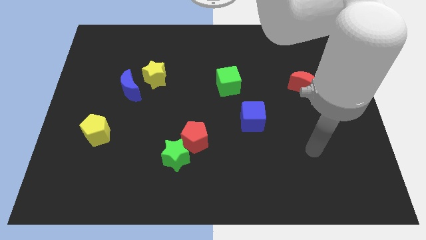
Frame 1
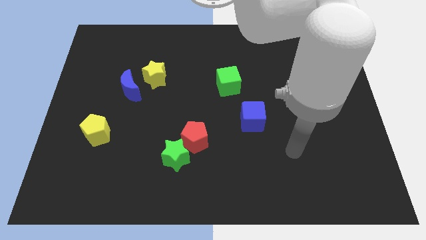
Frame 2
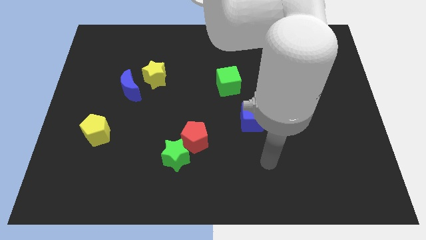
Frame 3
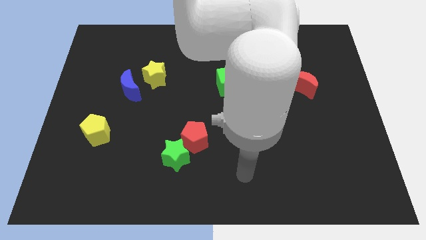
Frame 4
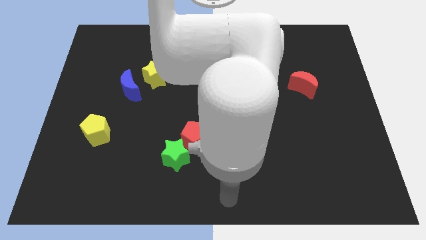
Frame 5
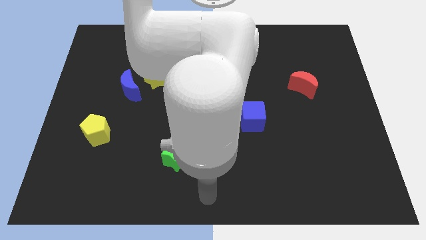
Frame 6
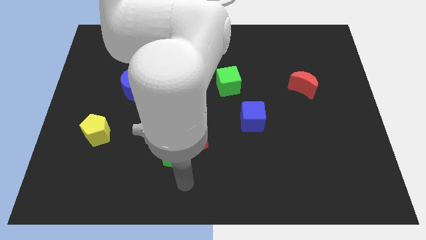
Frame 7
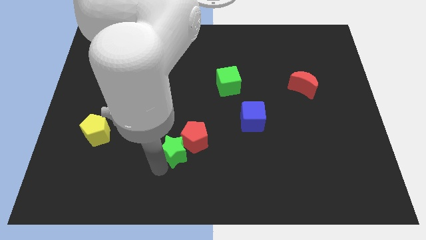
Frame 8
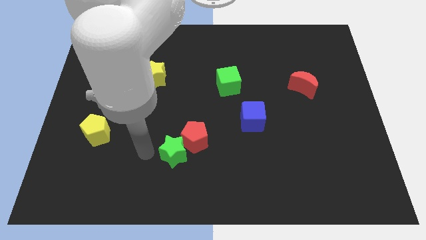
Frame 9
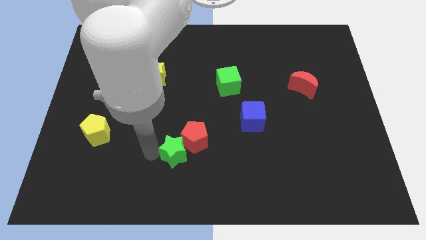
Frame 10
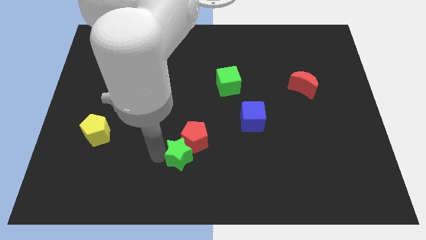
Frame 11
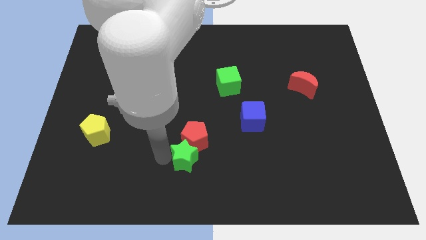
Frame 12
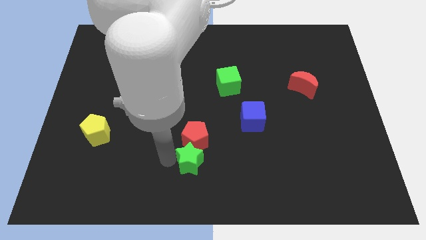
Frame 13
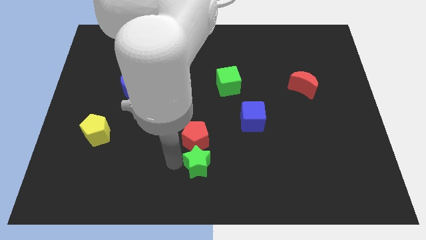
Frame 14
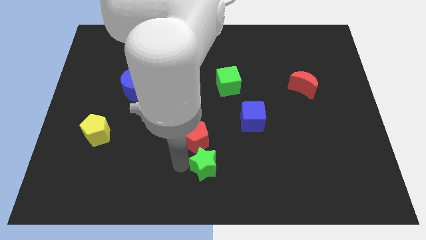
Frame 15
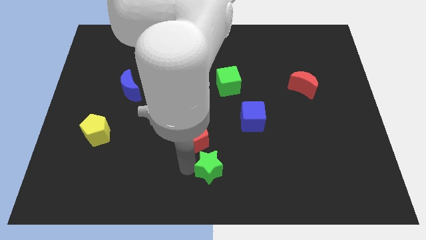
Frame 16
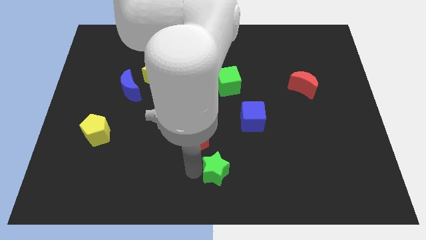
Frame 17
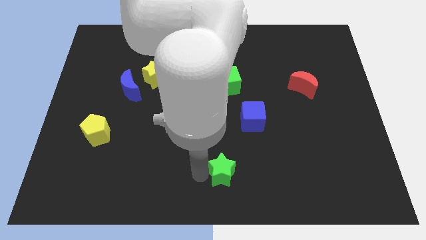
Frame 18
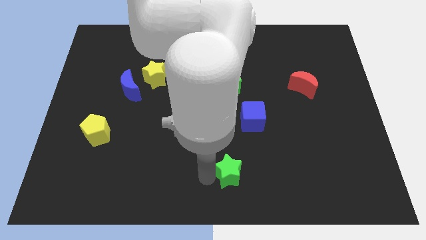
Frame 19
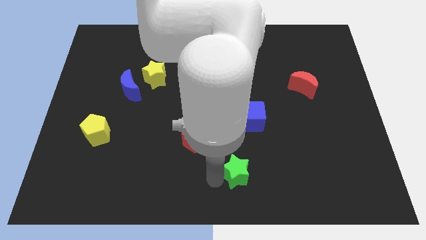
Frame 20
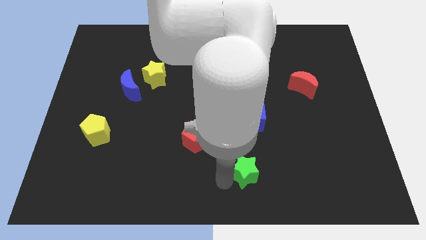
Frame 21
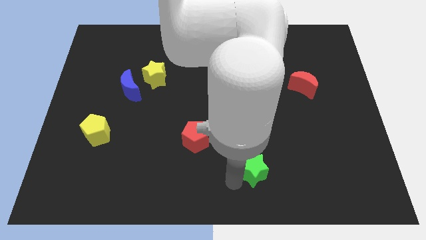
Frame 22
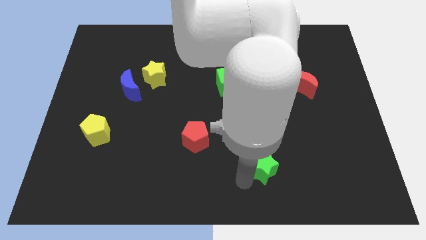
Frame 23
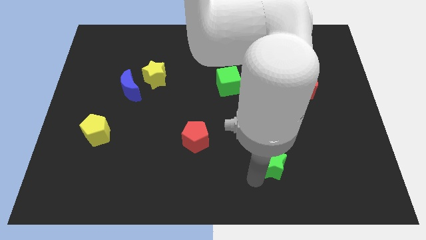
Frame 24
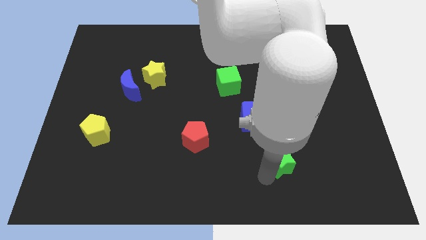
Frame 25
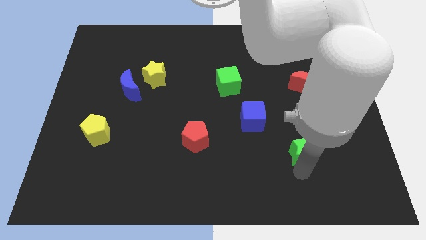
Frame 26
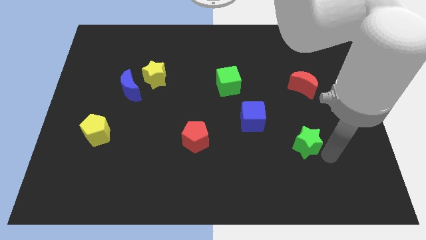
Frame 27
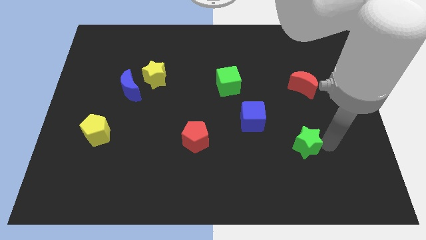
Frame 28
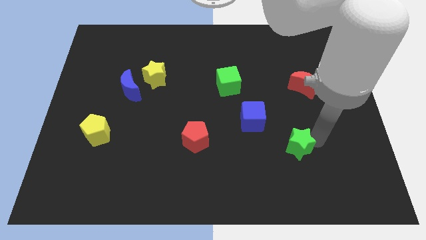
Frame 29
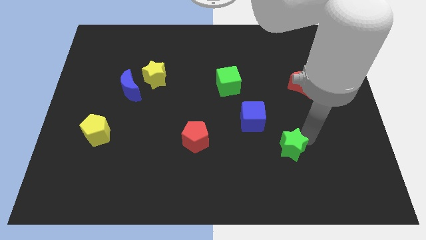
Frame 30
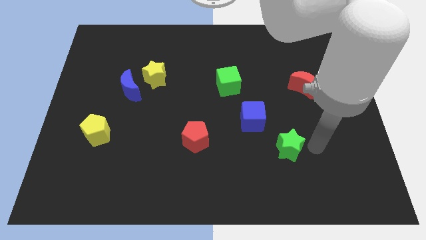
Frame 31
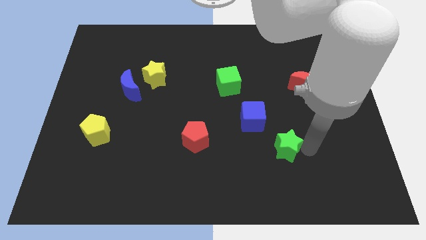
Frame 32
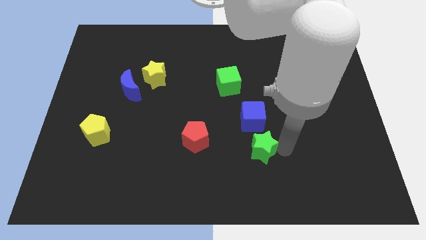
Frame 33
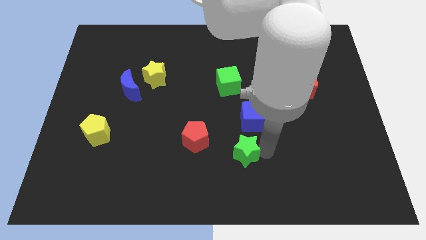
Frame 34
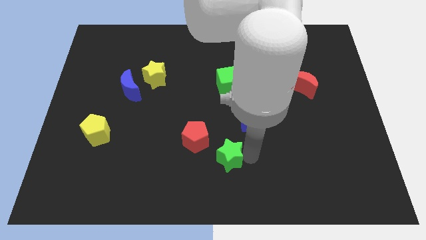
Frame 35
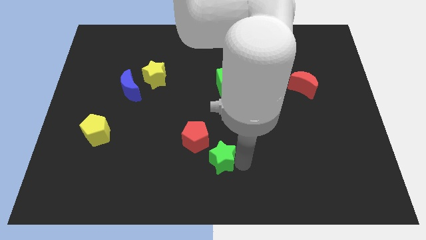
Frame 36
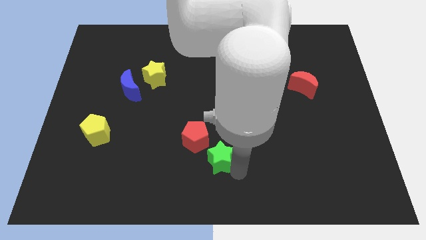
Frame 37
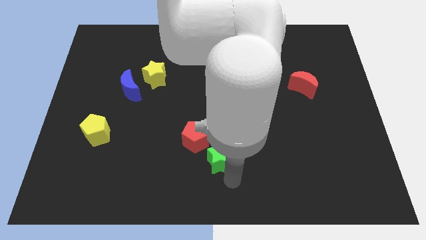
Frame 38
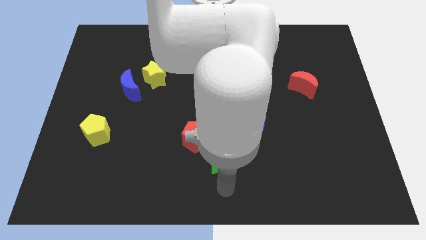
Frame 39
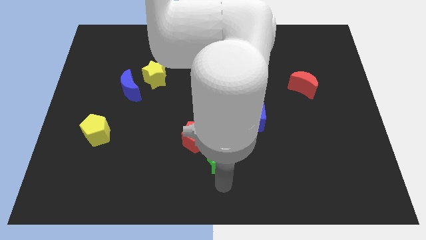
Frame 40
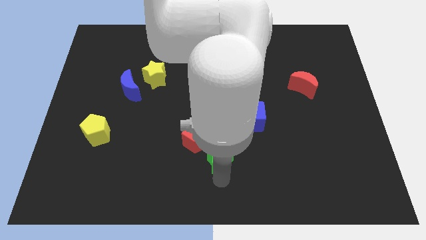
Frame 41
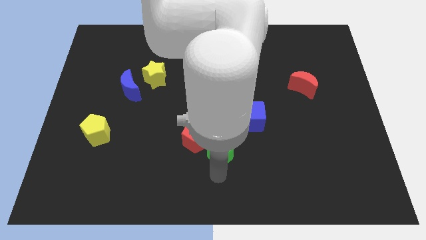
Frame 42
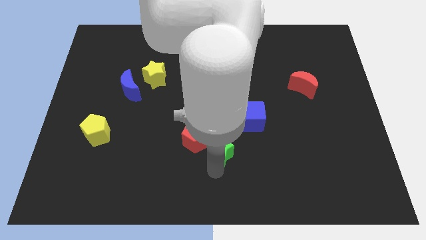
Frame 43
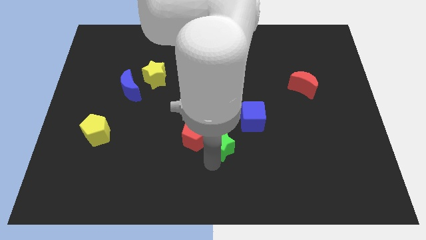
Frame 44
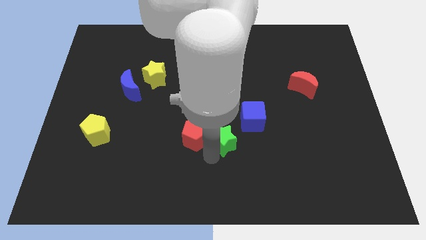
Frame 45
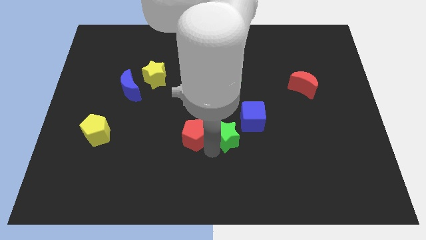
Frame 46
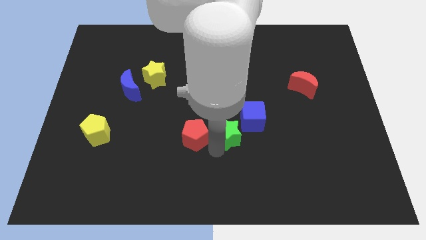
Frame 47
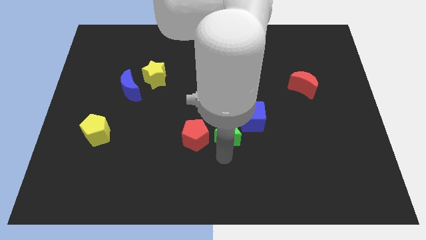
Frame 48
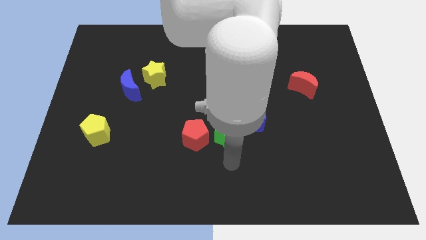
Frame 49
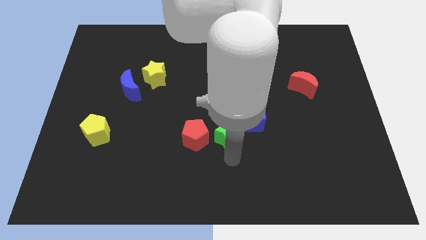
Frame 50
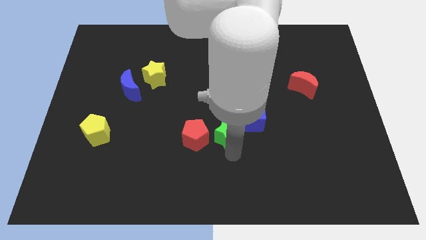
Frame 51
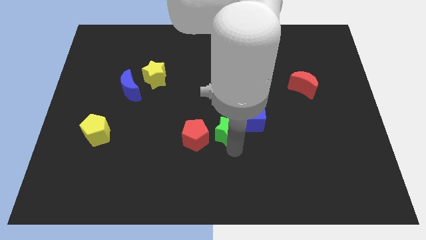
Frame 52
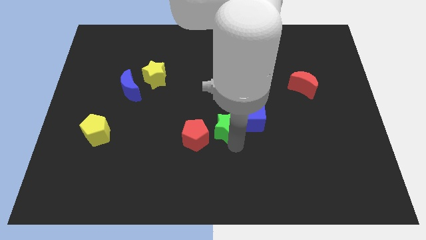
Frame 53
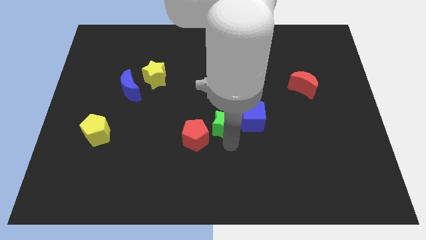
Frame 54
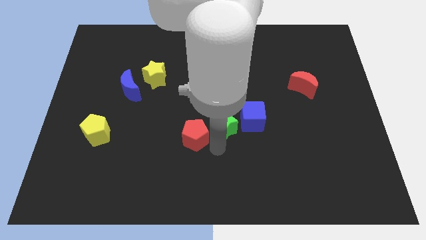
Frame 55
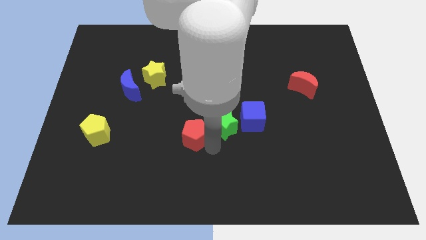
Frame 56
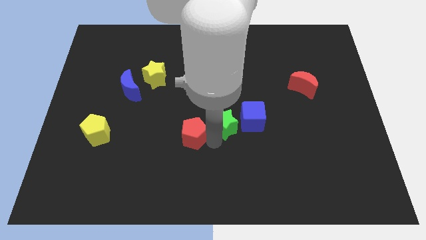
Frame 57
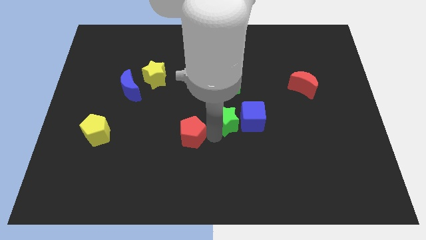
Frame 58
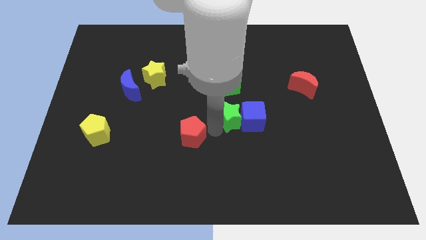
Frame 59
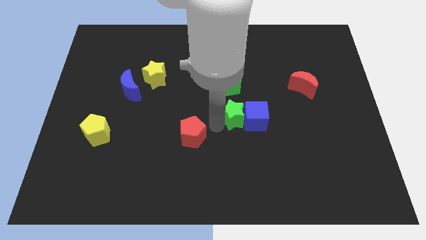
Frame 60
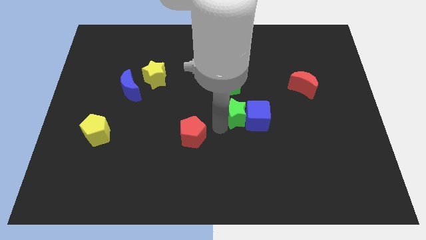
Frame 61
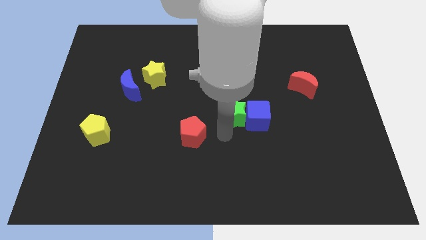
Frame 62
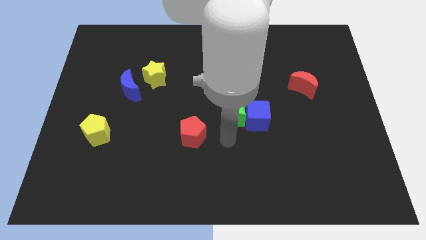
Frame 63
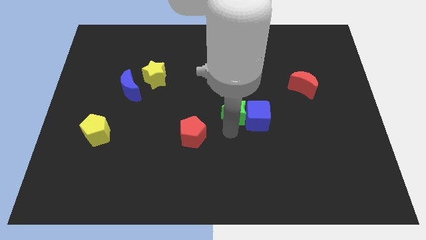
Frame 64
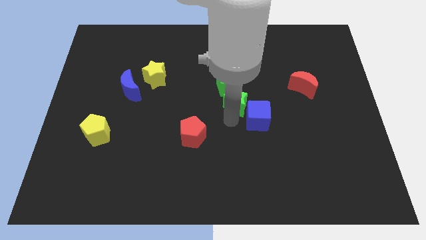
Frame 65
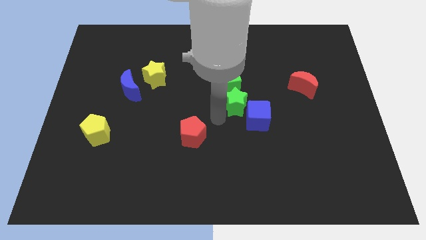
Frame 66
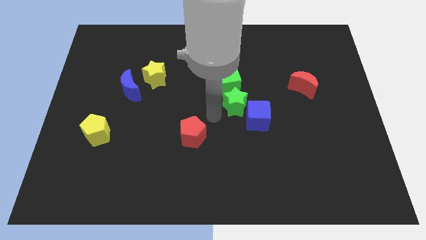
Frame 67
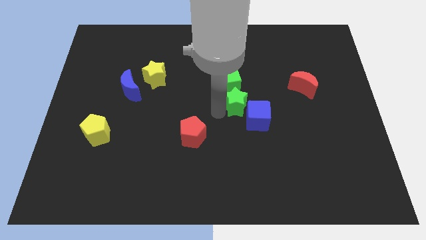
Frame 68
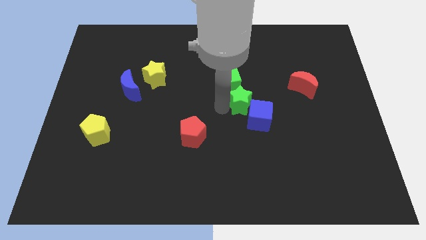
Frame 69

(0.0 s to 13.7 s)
move the green star upwards and then right

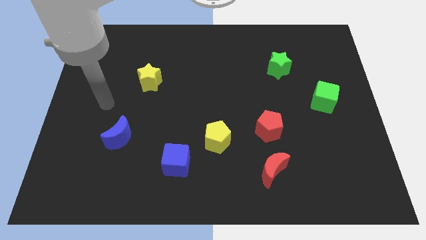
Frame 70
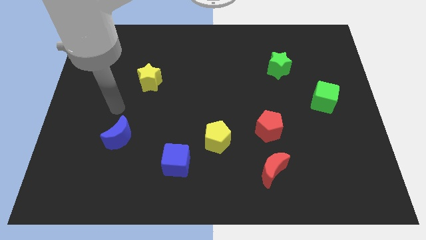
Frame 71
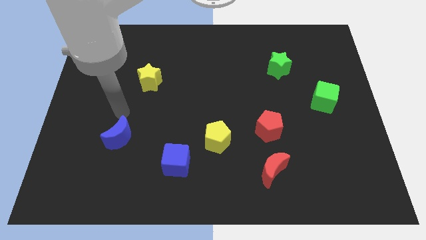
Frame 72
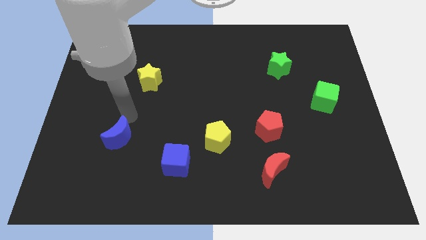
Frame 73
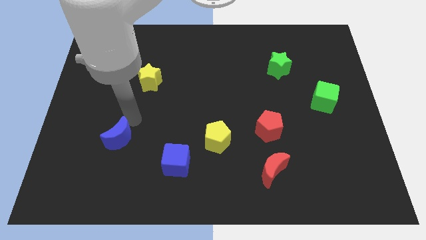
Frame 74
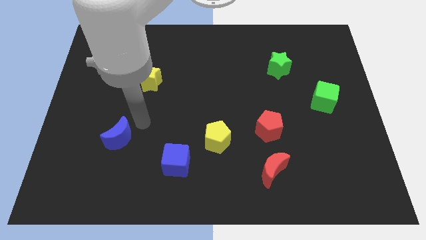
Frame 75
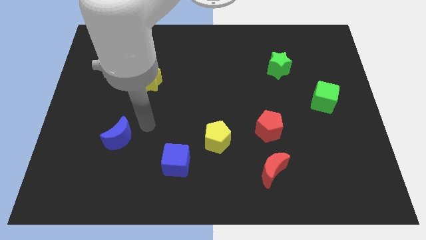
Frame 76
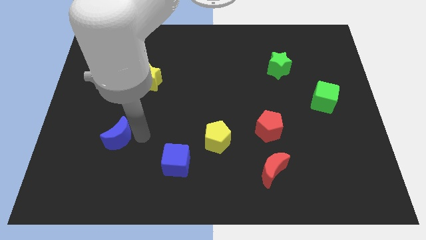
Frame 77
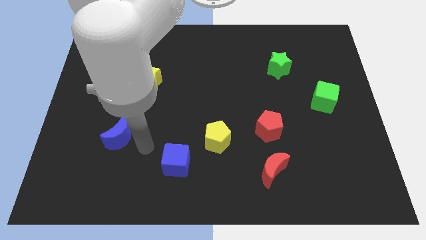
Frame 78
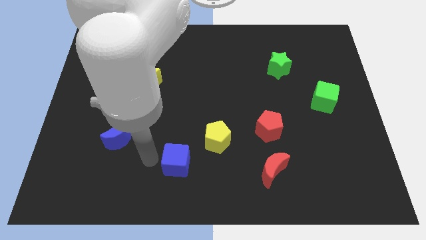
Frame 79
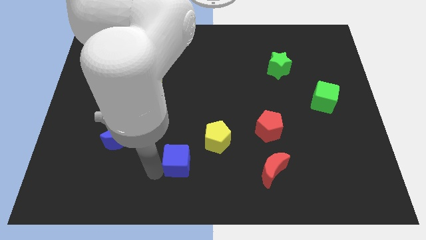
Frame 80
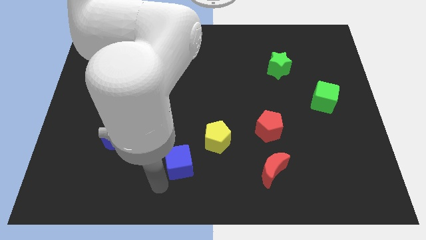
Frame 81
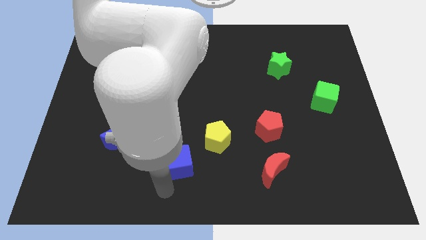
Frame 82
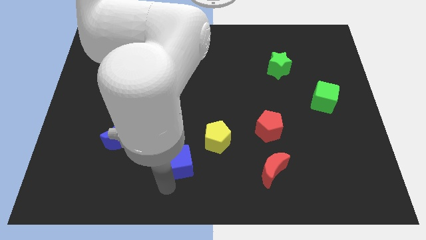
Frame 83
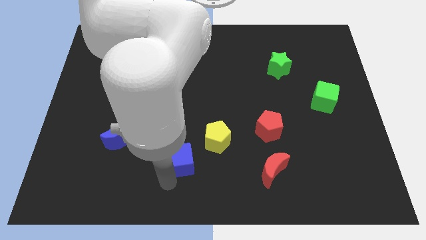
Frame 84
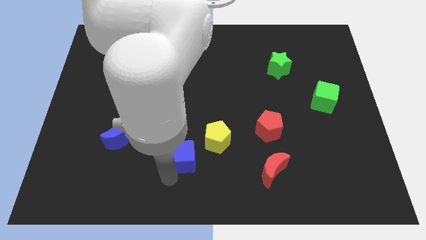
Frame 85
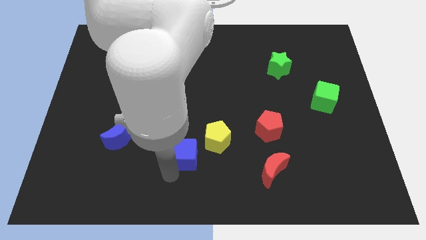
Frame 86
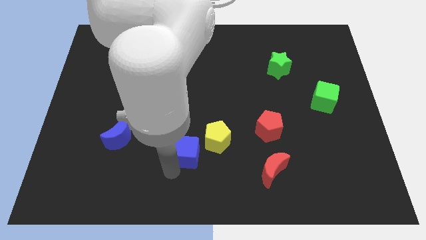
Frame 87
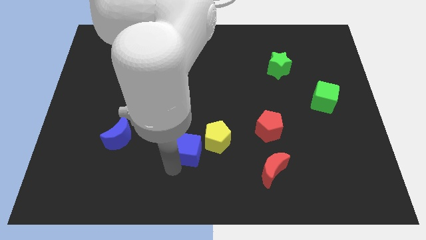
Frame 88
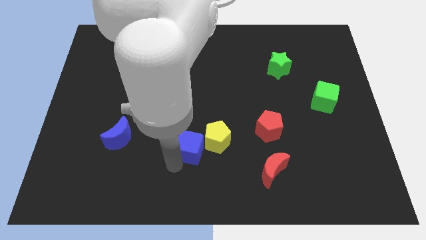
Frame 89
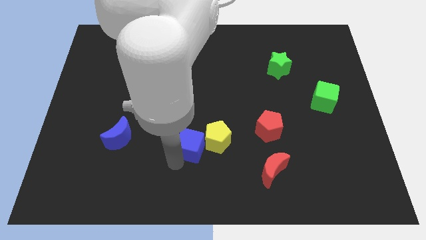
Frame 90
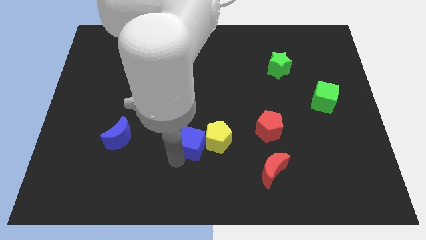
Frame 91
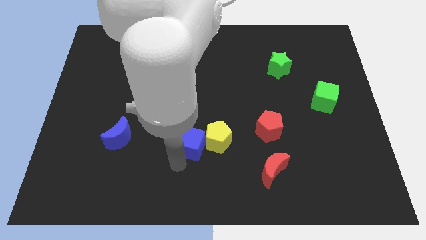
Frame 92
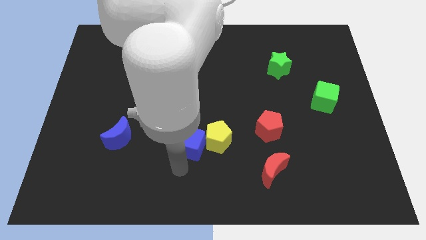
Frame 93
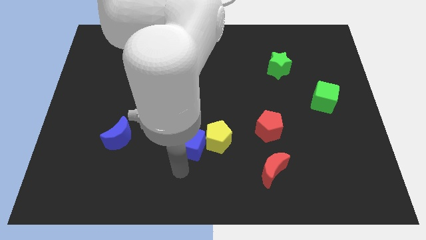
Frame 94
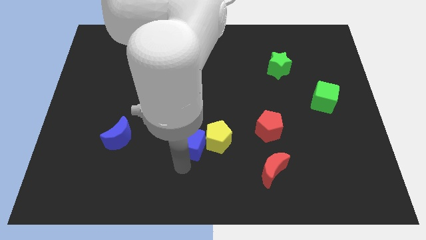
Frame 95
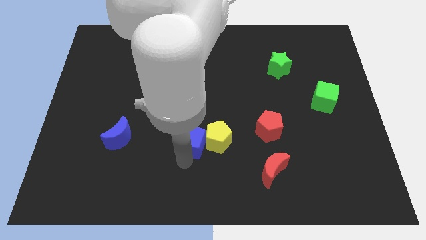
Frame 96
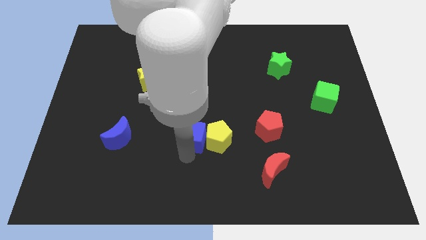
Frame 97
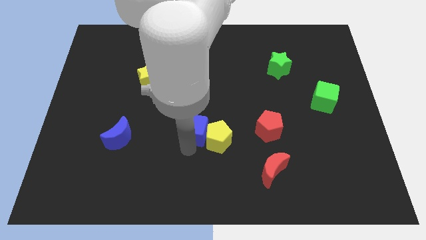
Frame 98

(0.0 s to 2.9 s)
move the blue cube up and to the right a little
